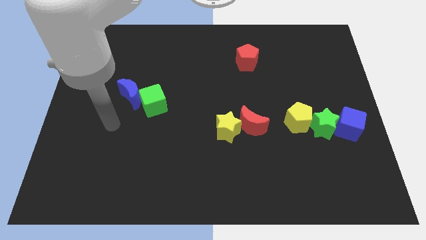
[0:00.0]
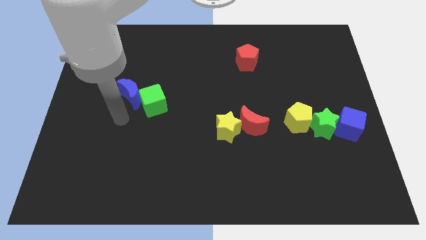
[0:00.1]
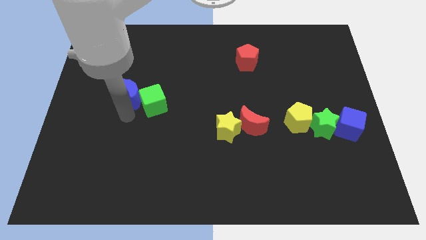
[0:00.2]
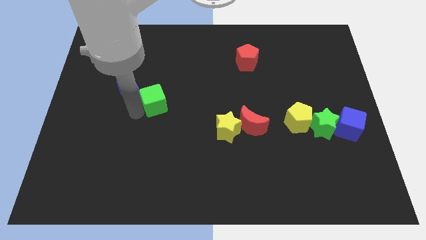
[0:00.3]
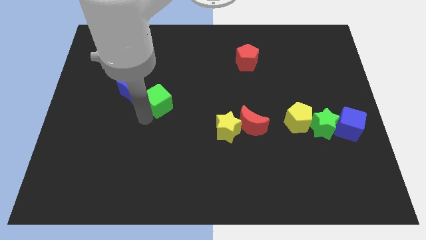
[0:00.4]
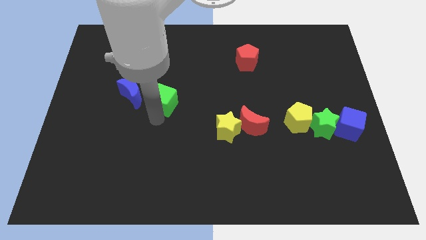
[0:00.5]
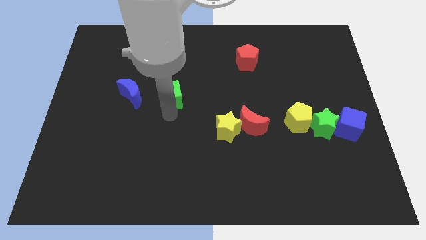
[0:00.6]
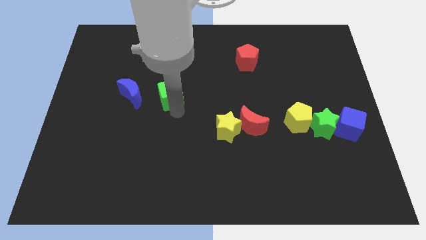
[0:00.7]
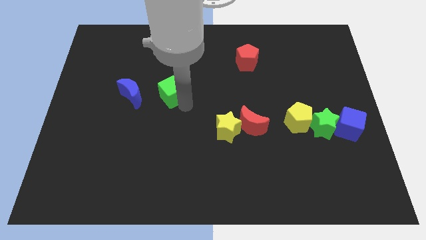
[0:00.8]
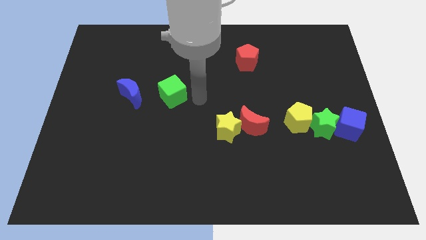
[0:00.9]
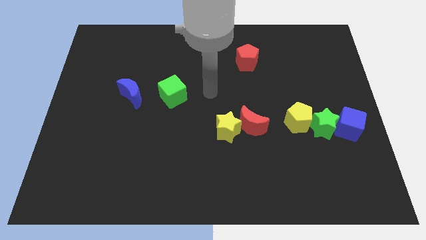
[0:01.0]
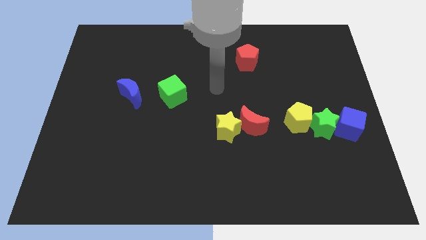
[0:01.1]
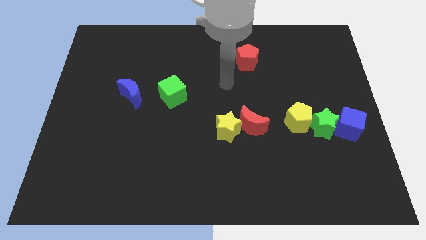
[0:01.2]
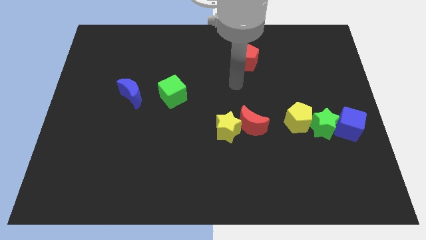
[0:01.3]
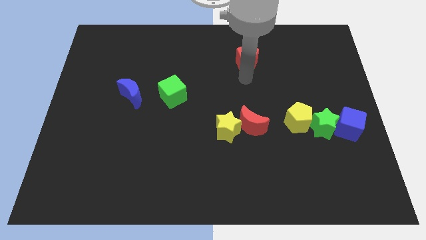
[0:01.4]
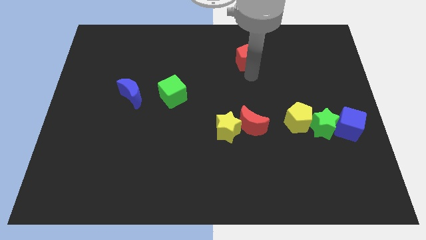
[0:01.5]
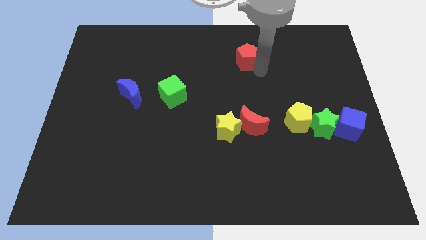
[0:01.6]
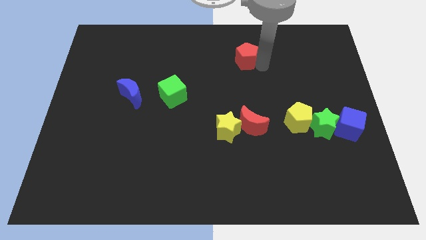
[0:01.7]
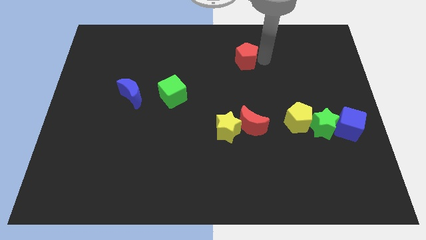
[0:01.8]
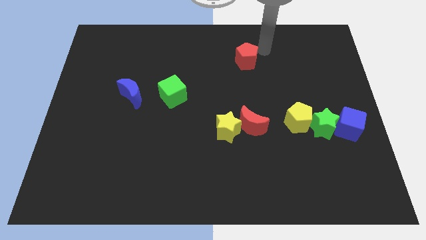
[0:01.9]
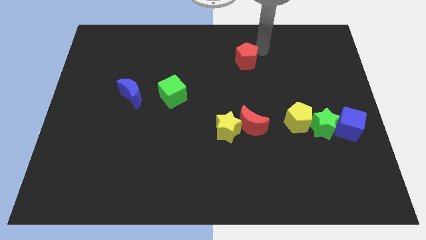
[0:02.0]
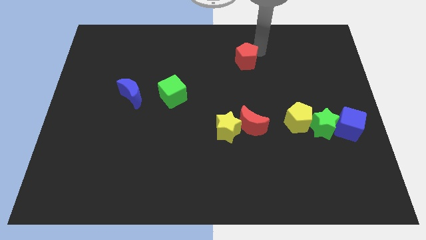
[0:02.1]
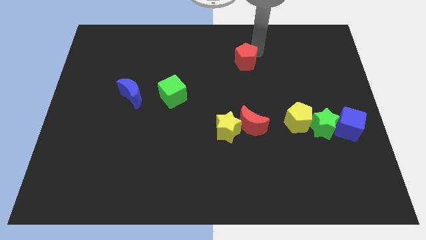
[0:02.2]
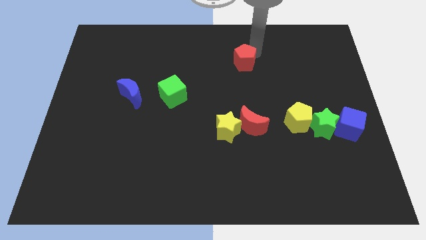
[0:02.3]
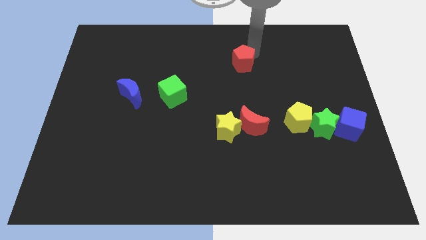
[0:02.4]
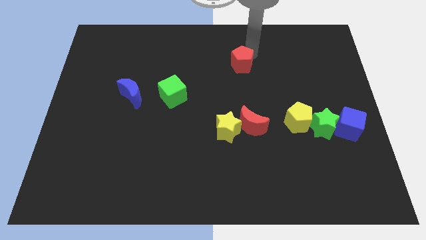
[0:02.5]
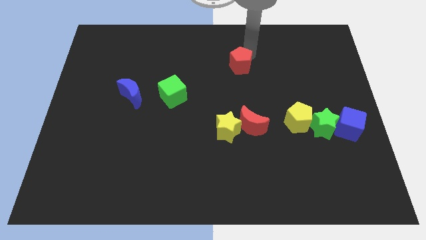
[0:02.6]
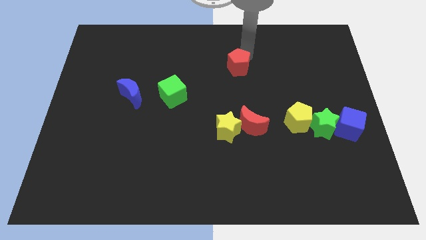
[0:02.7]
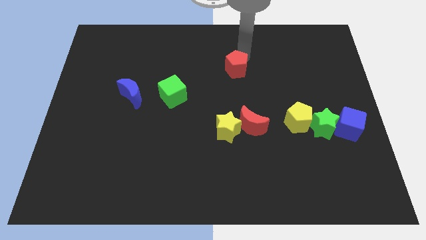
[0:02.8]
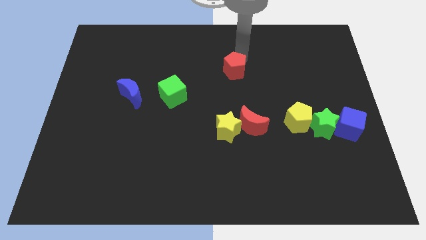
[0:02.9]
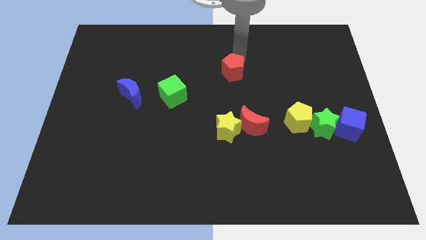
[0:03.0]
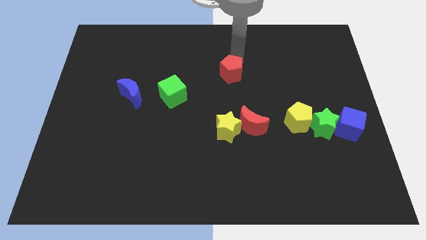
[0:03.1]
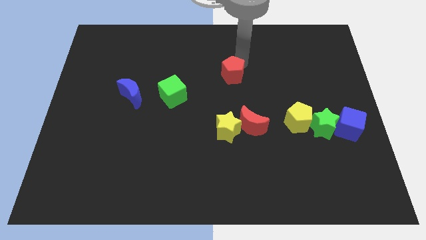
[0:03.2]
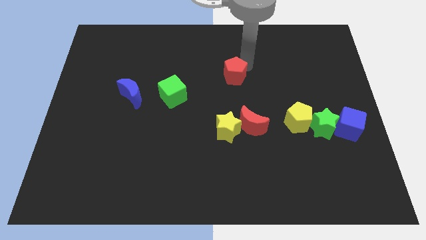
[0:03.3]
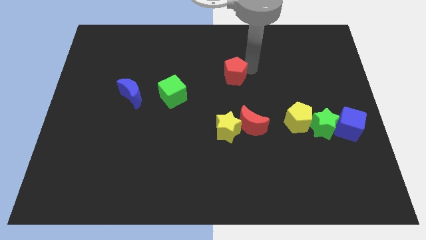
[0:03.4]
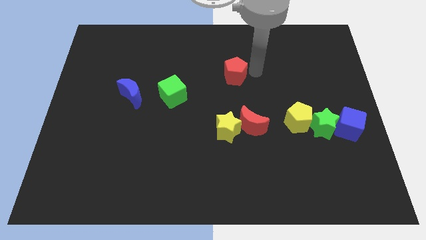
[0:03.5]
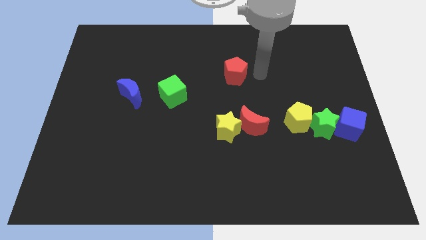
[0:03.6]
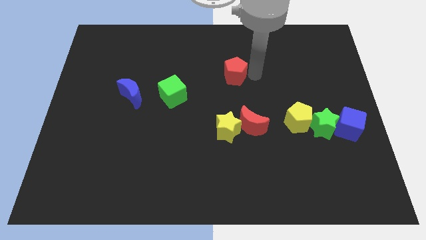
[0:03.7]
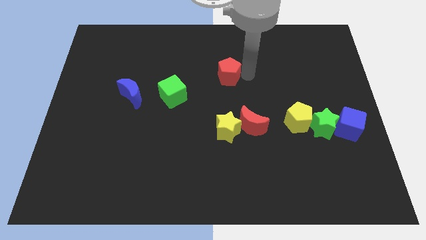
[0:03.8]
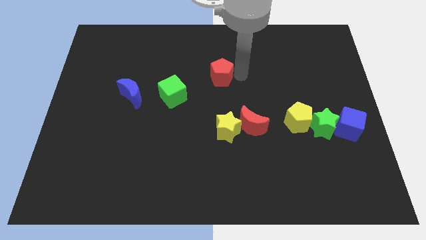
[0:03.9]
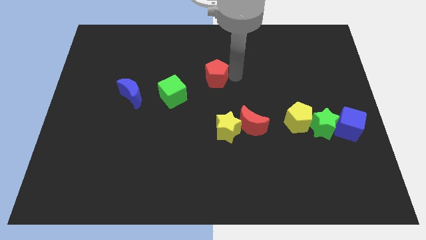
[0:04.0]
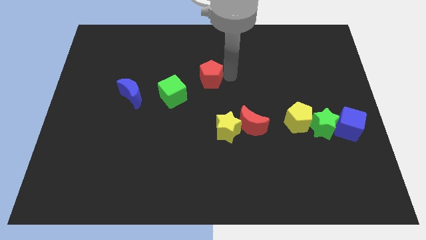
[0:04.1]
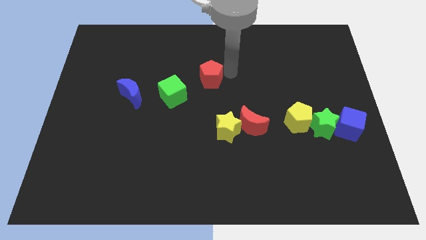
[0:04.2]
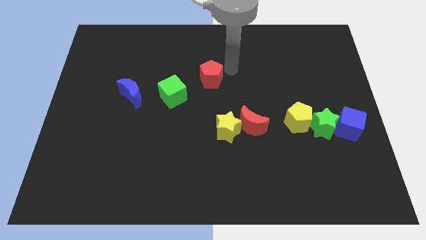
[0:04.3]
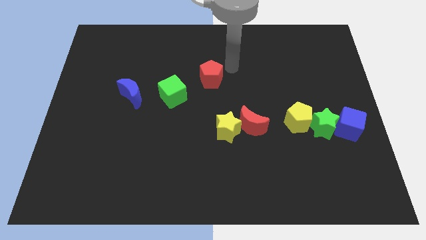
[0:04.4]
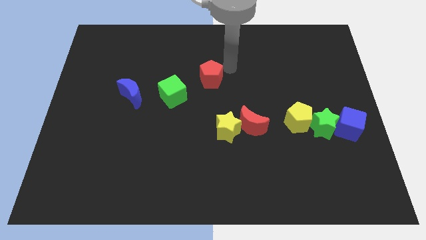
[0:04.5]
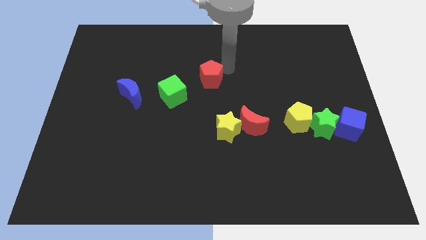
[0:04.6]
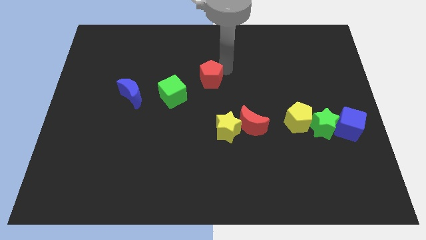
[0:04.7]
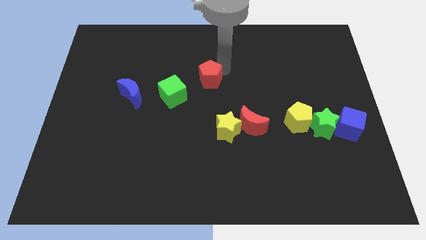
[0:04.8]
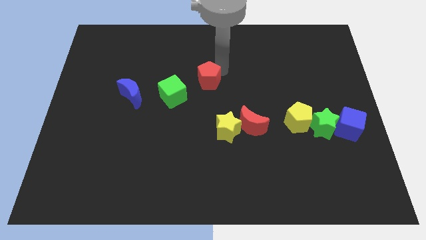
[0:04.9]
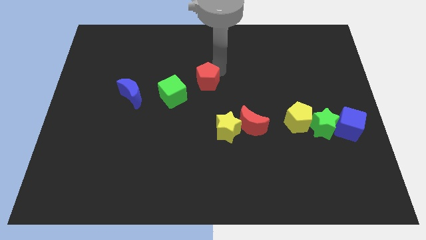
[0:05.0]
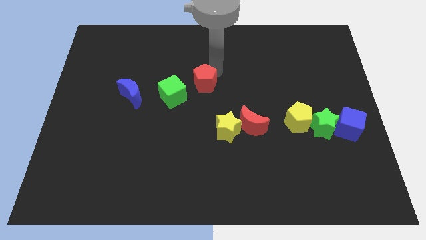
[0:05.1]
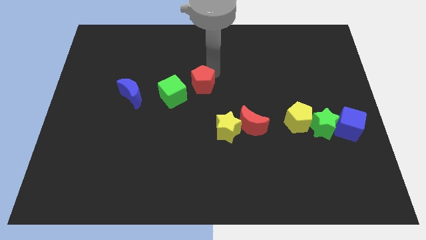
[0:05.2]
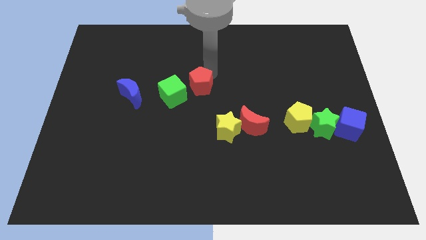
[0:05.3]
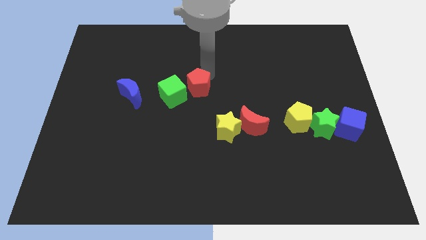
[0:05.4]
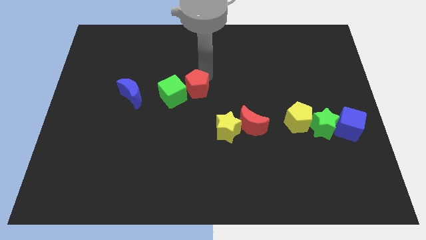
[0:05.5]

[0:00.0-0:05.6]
slide the red pentagon towards the green cube

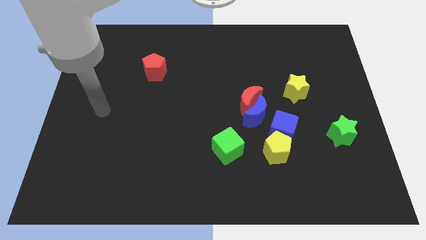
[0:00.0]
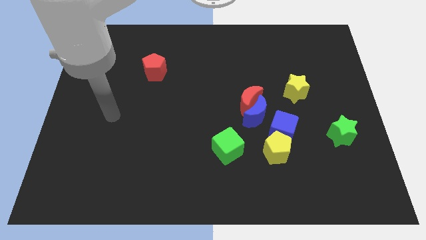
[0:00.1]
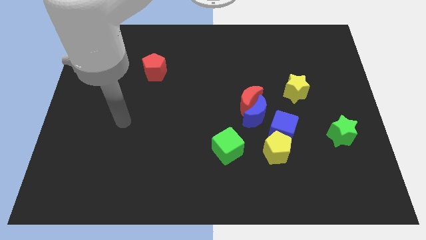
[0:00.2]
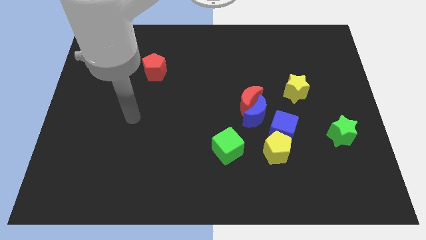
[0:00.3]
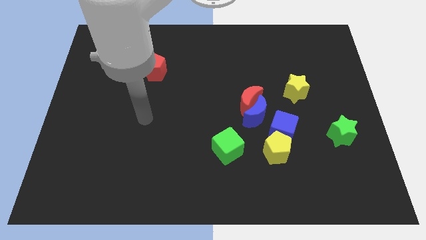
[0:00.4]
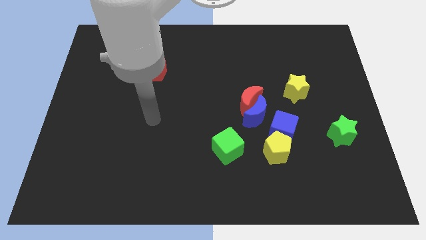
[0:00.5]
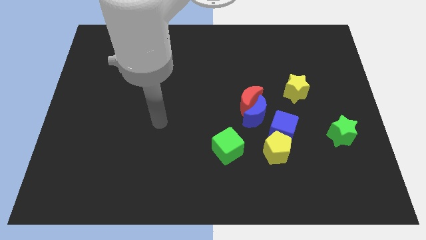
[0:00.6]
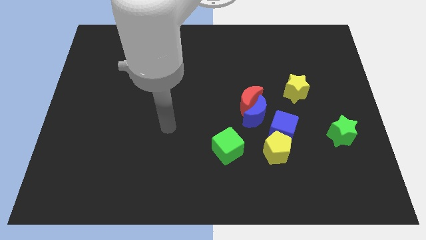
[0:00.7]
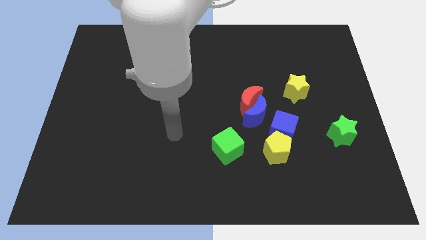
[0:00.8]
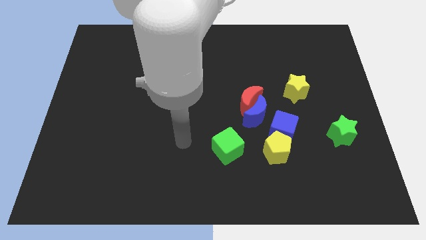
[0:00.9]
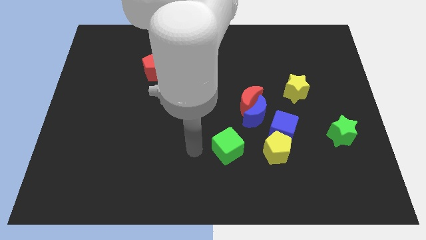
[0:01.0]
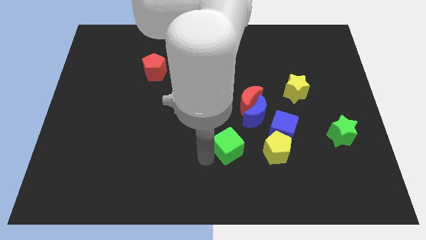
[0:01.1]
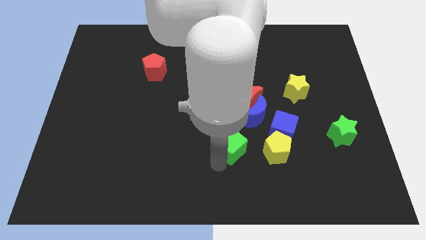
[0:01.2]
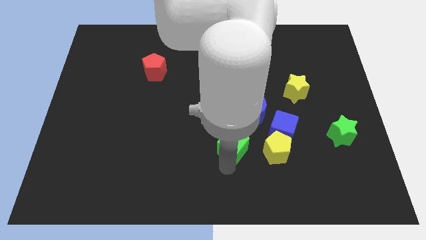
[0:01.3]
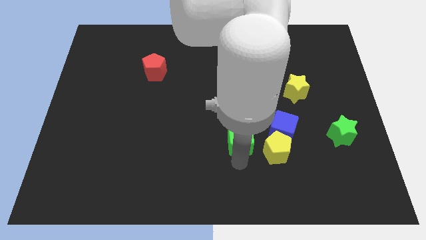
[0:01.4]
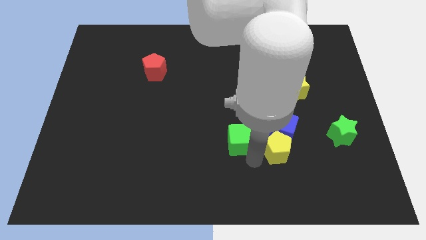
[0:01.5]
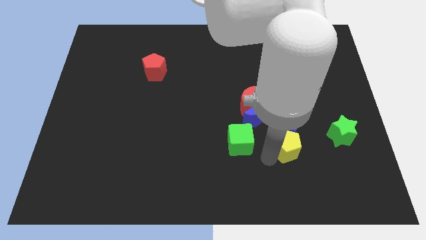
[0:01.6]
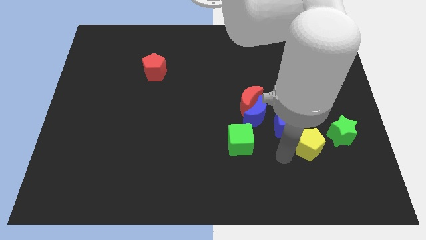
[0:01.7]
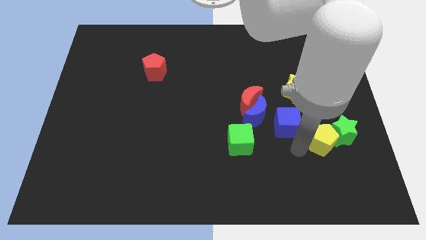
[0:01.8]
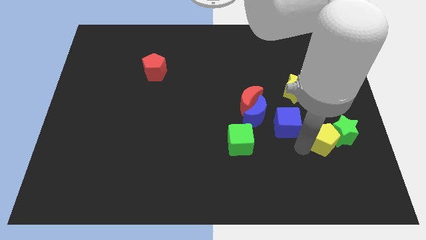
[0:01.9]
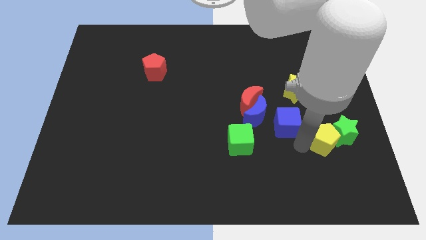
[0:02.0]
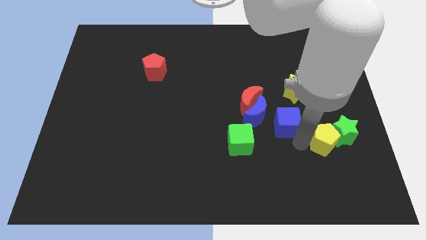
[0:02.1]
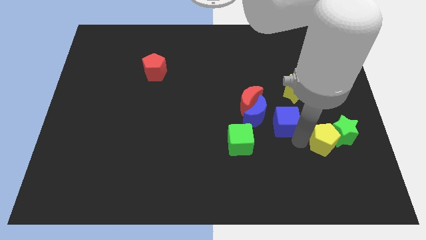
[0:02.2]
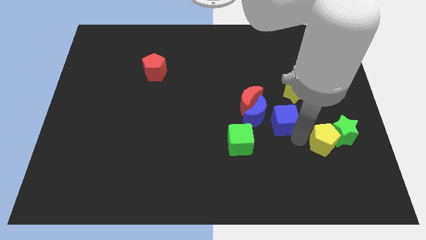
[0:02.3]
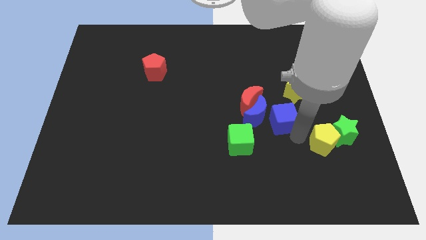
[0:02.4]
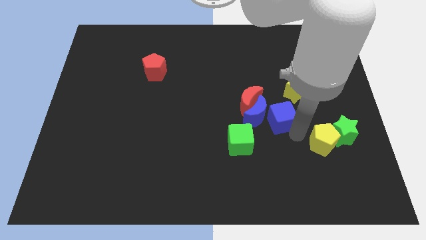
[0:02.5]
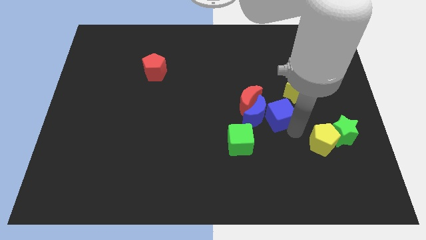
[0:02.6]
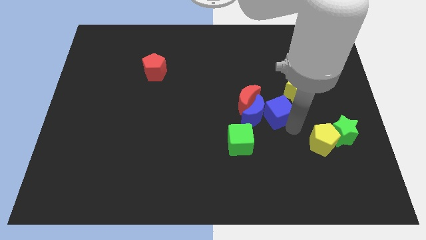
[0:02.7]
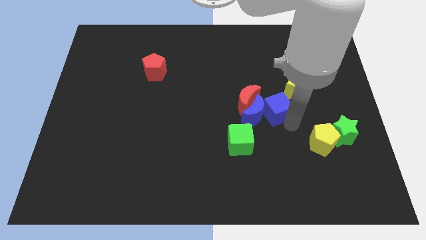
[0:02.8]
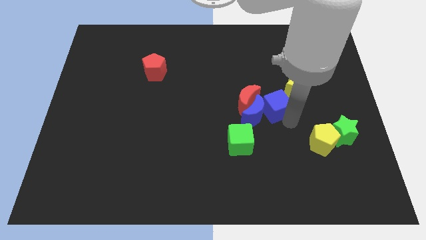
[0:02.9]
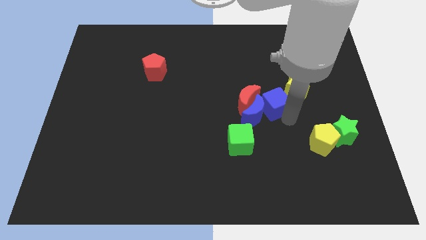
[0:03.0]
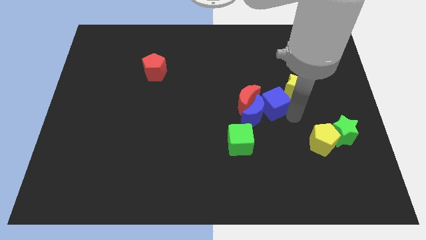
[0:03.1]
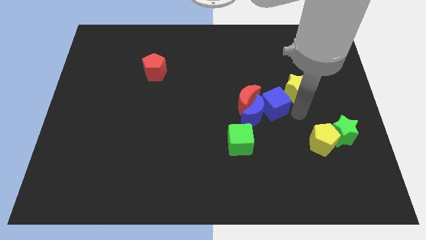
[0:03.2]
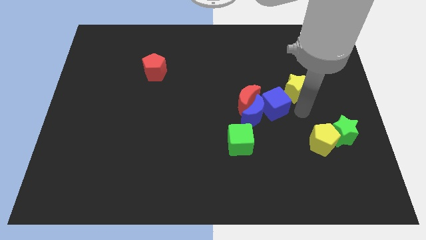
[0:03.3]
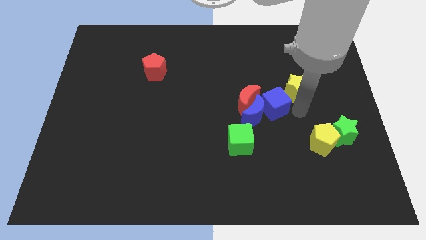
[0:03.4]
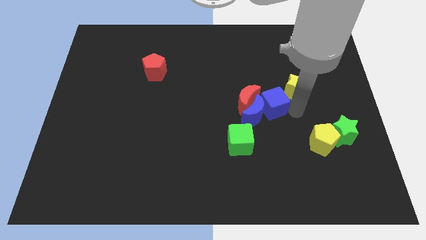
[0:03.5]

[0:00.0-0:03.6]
move the blue cube next to the red moon
